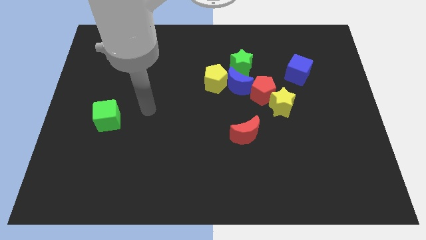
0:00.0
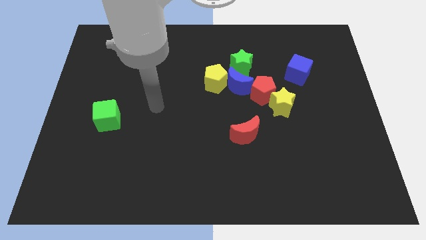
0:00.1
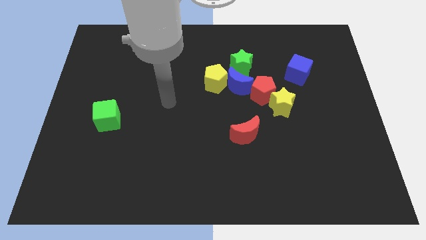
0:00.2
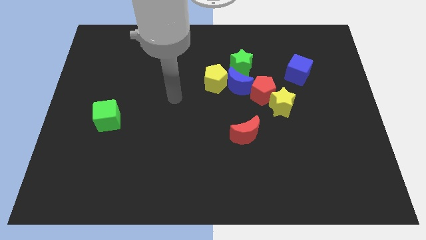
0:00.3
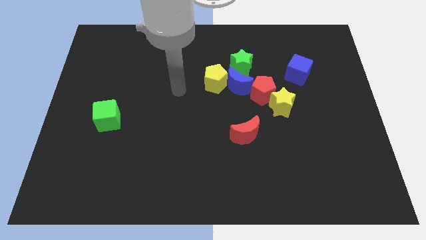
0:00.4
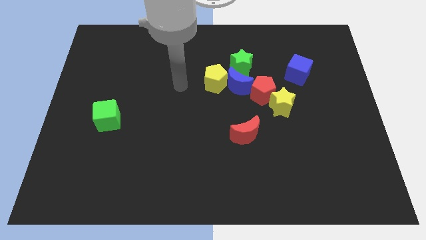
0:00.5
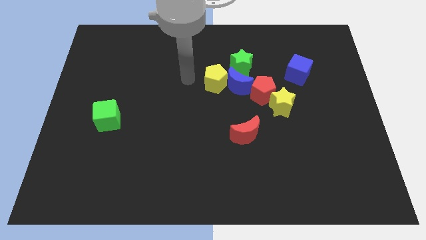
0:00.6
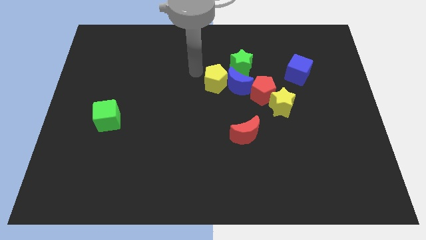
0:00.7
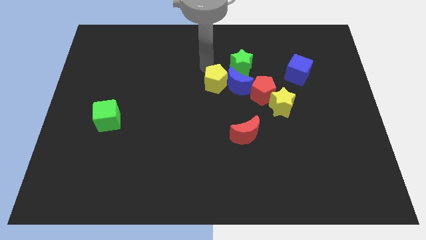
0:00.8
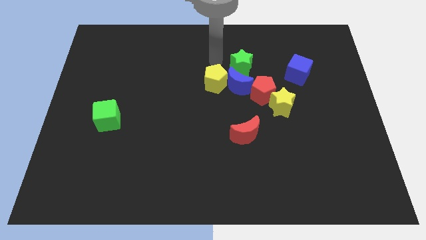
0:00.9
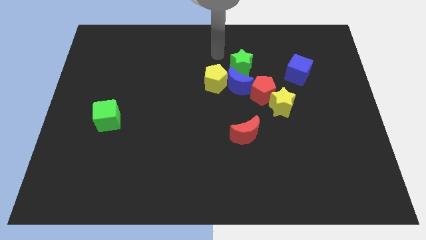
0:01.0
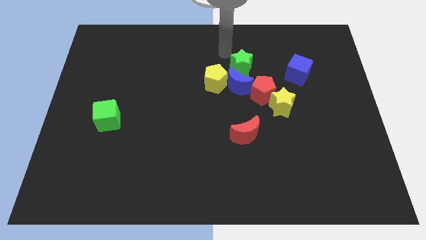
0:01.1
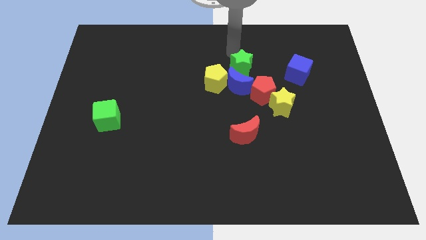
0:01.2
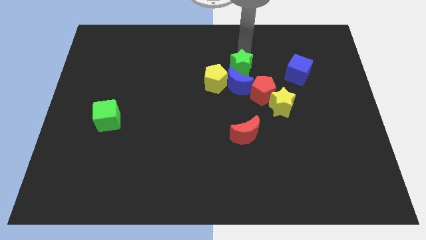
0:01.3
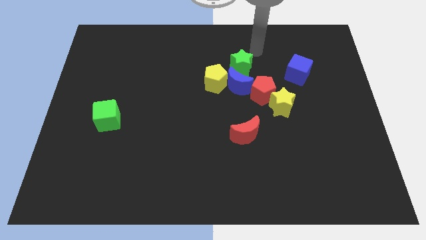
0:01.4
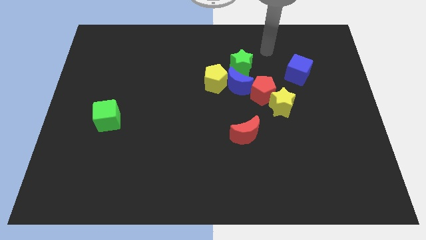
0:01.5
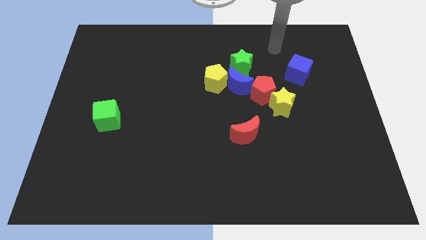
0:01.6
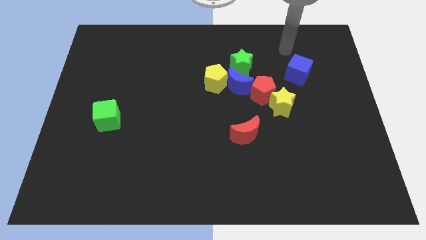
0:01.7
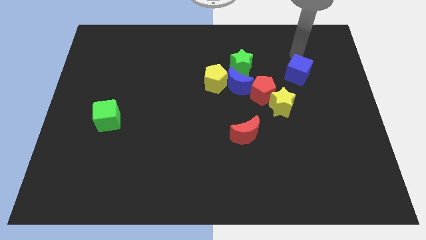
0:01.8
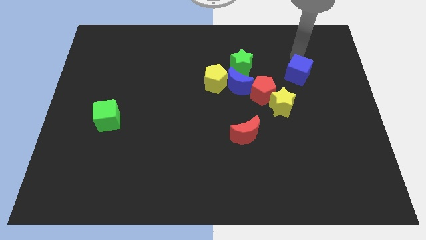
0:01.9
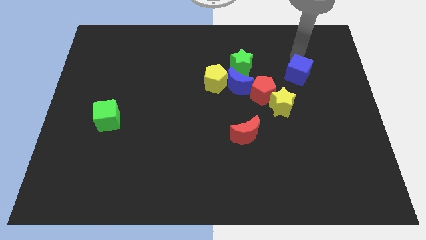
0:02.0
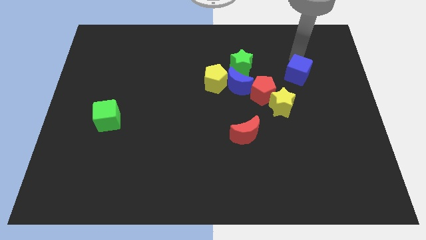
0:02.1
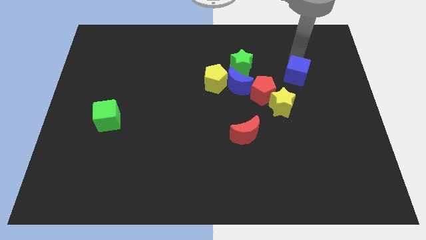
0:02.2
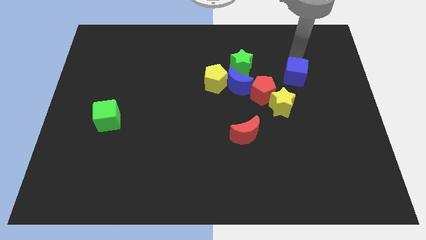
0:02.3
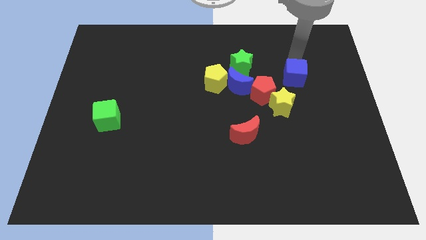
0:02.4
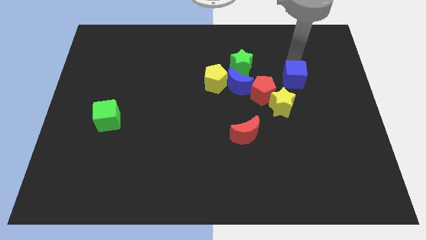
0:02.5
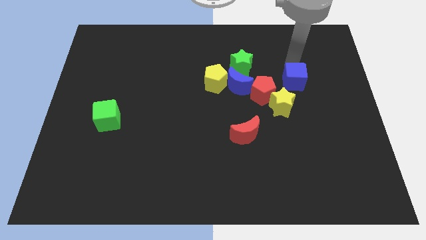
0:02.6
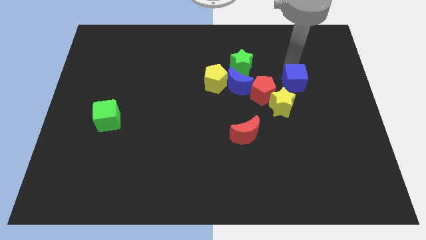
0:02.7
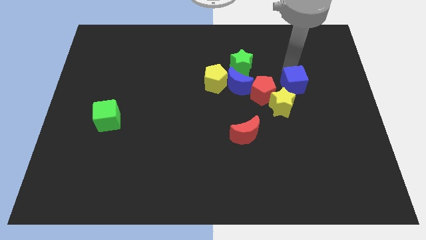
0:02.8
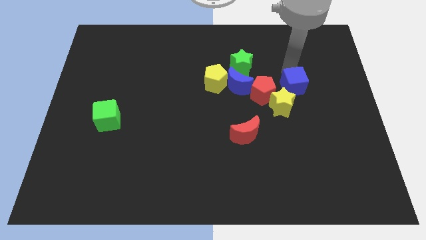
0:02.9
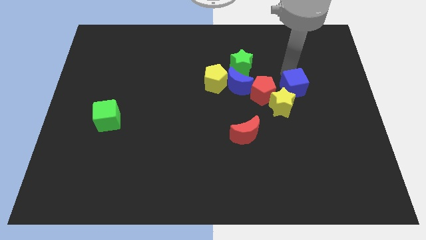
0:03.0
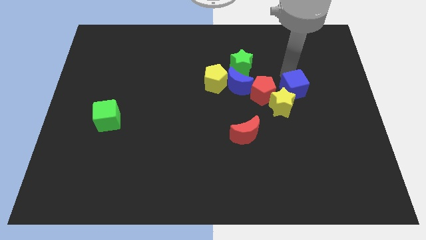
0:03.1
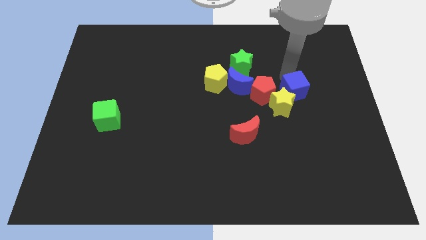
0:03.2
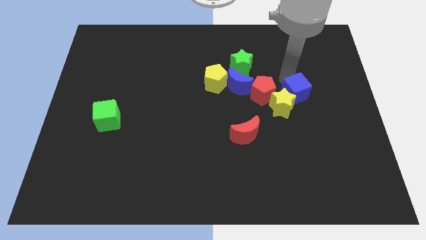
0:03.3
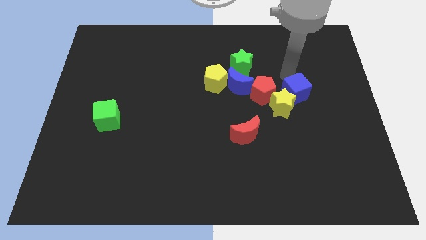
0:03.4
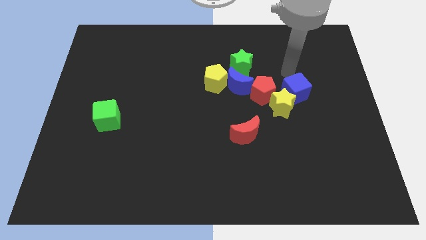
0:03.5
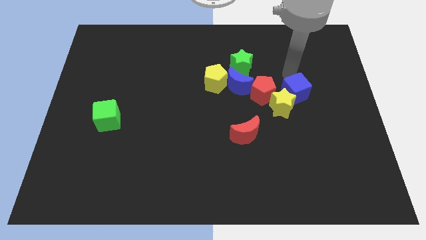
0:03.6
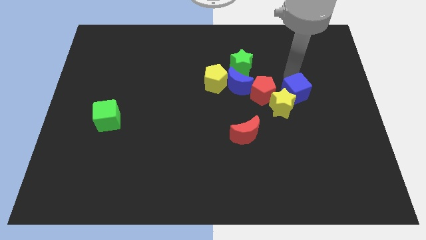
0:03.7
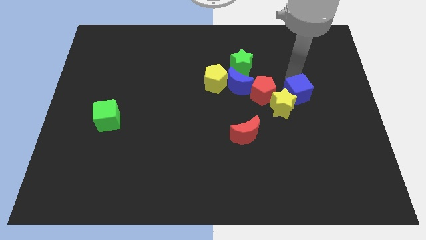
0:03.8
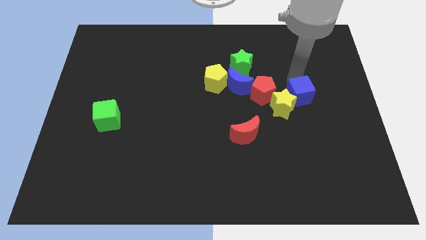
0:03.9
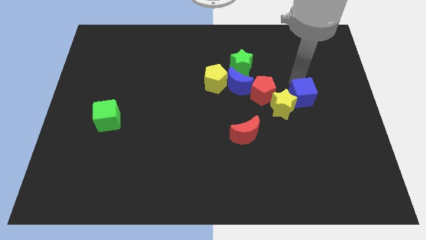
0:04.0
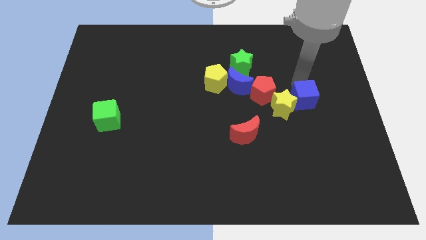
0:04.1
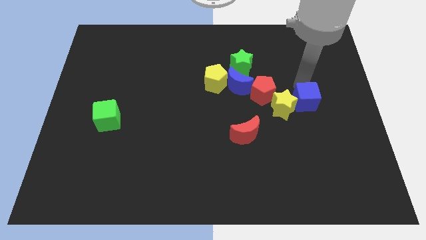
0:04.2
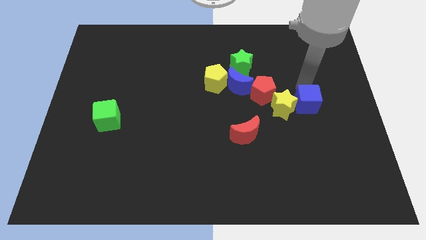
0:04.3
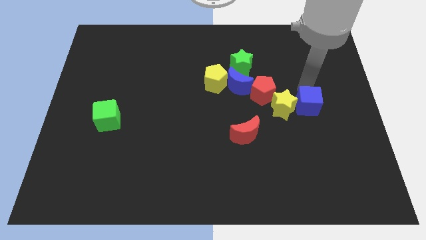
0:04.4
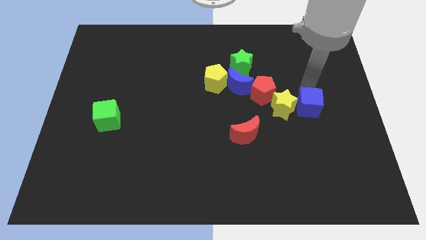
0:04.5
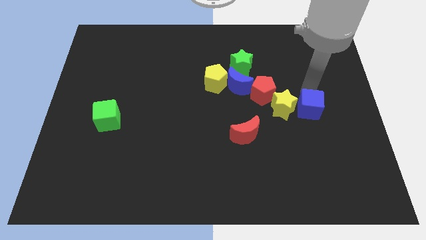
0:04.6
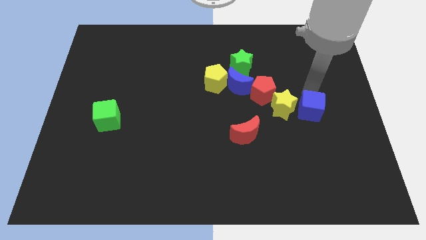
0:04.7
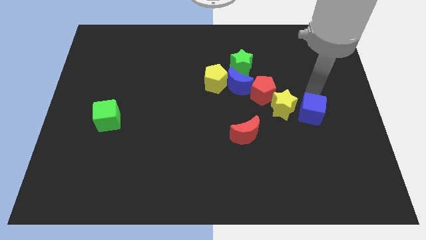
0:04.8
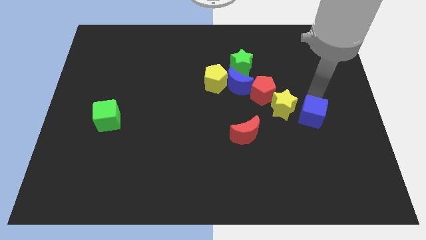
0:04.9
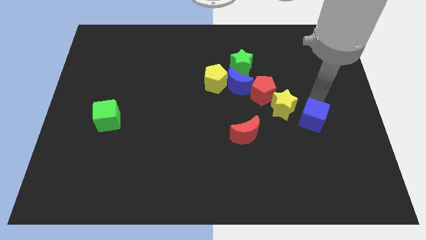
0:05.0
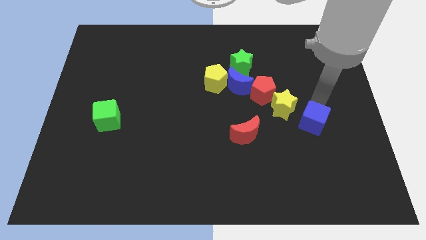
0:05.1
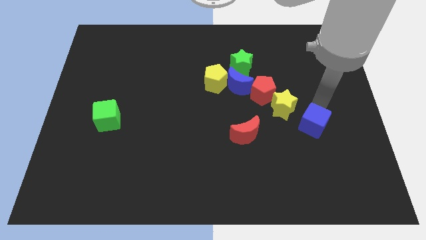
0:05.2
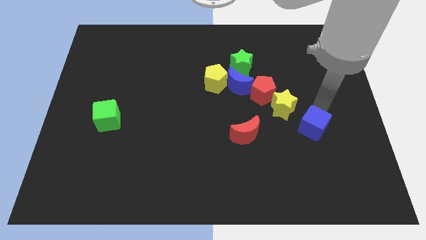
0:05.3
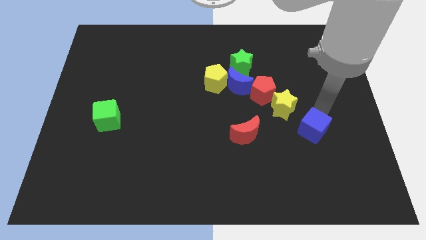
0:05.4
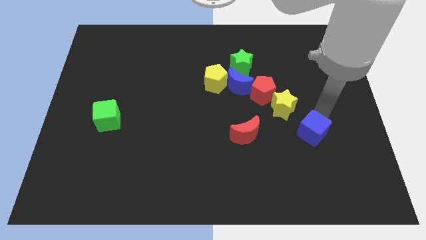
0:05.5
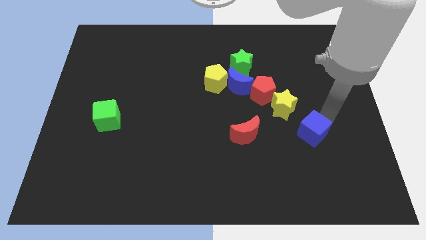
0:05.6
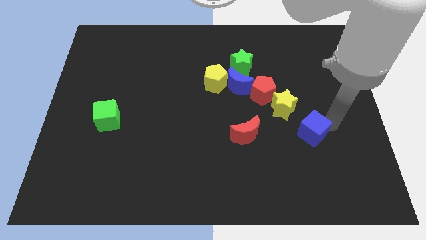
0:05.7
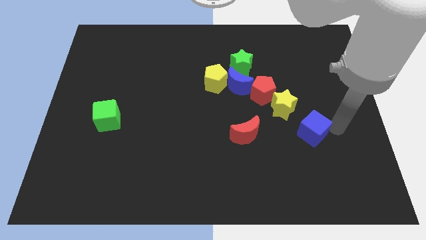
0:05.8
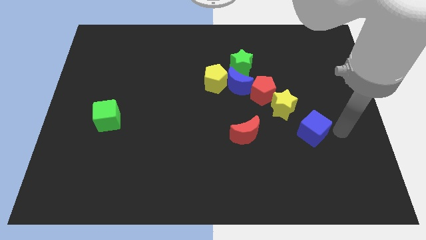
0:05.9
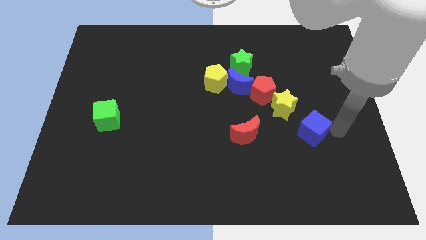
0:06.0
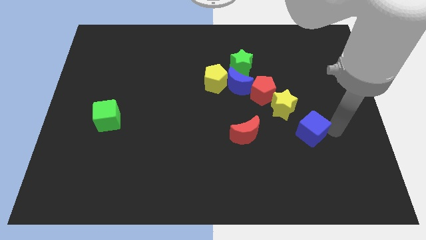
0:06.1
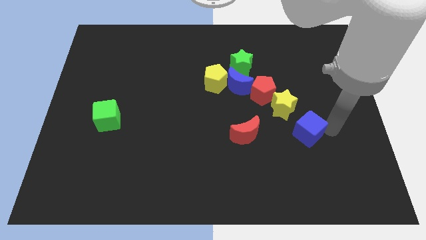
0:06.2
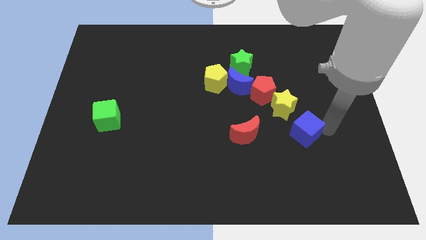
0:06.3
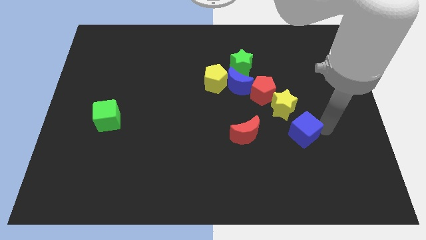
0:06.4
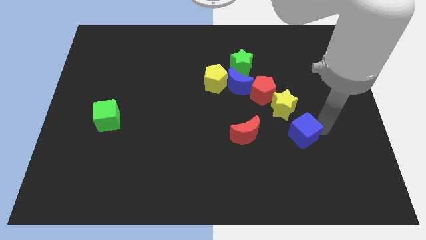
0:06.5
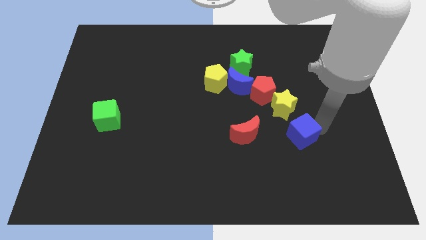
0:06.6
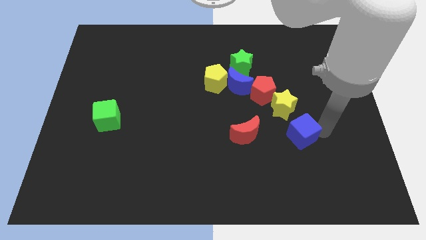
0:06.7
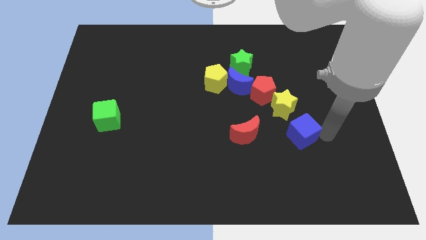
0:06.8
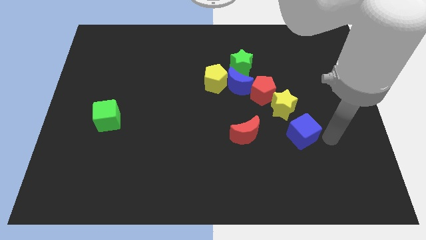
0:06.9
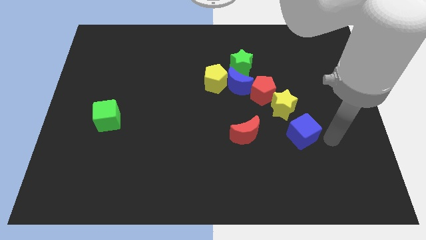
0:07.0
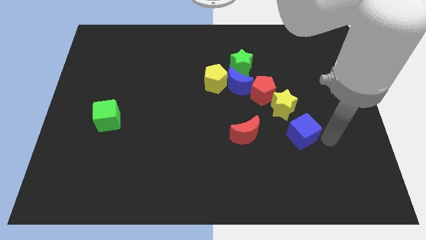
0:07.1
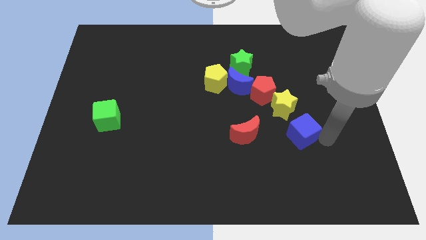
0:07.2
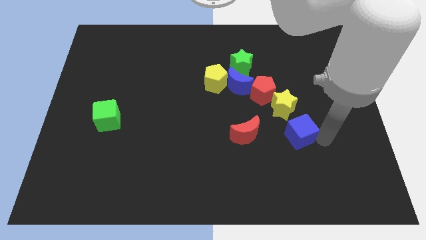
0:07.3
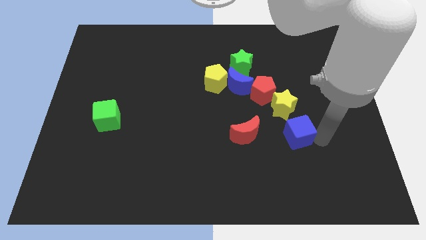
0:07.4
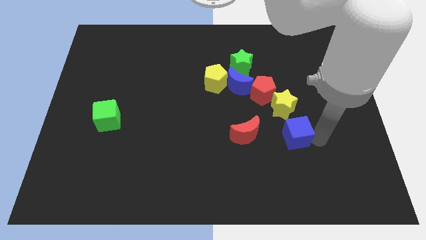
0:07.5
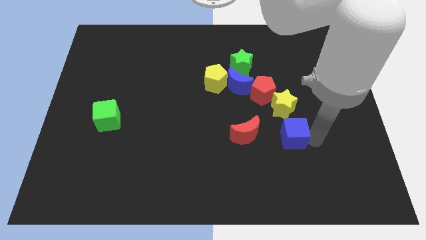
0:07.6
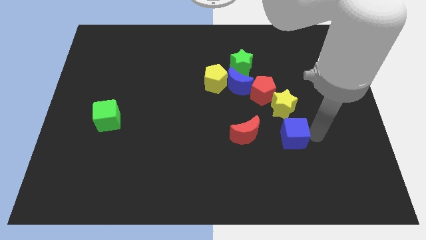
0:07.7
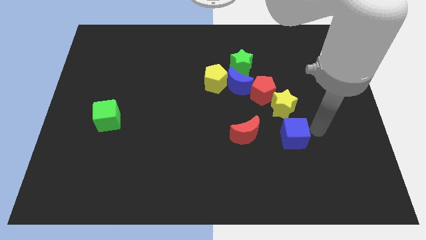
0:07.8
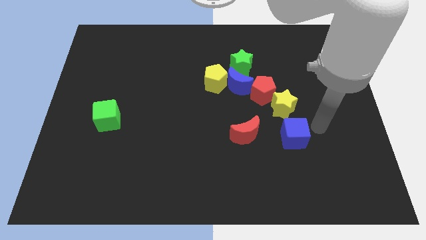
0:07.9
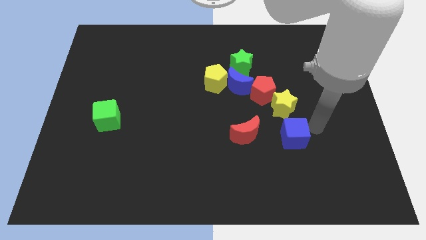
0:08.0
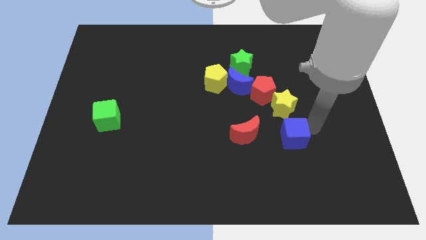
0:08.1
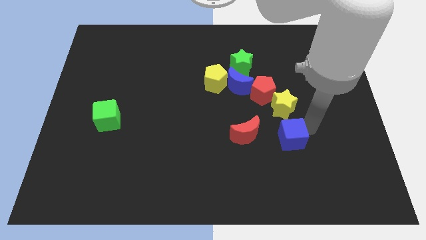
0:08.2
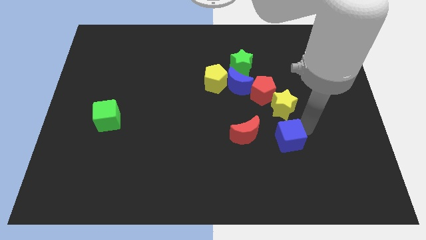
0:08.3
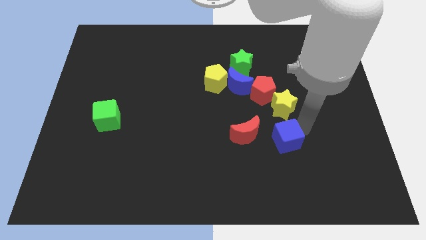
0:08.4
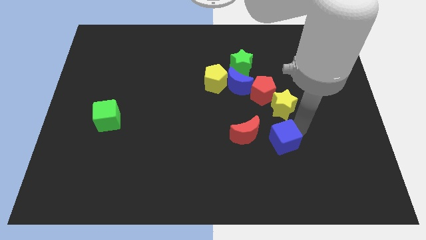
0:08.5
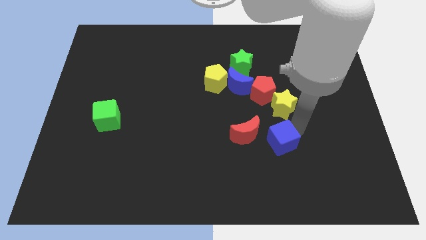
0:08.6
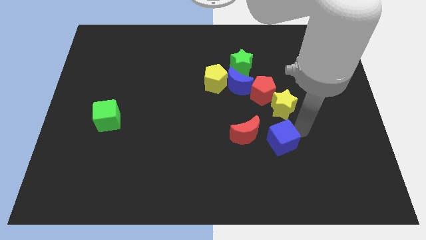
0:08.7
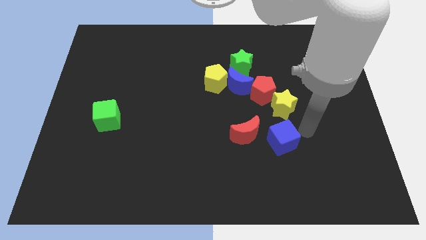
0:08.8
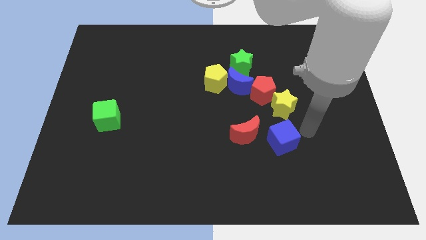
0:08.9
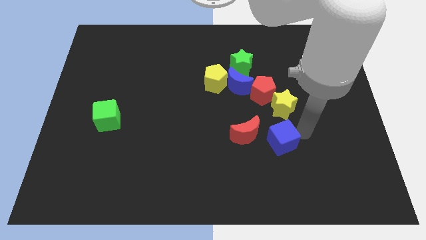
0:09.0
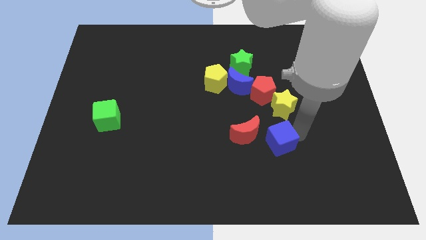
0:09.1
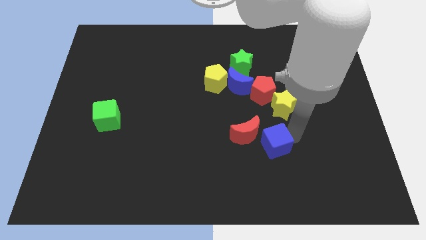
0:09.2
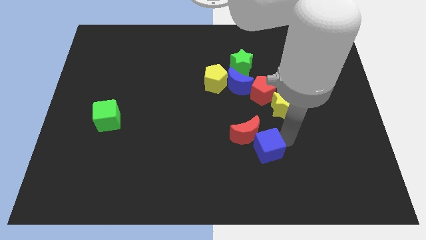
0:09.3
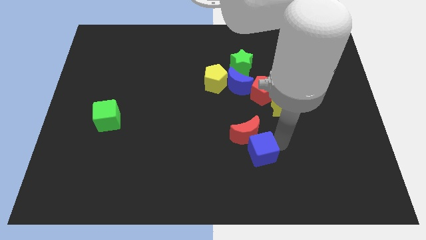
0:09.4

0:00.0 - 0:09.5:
push the blue cube diagonally downwards and left
